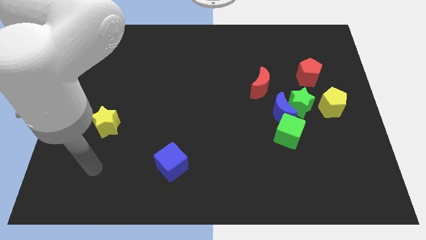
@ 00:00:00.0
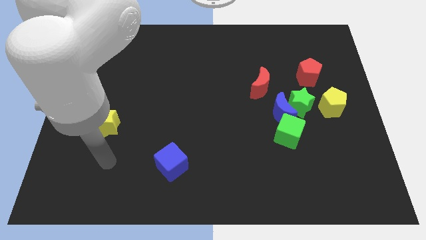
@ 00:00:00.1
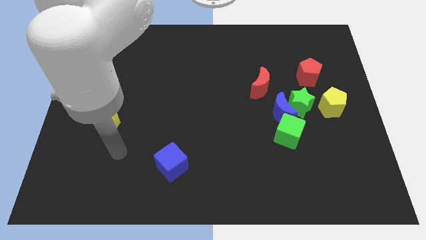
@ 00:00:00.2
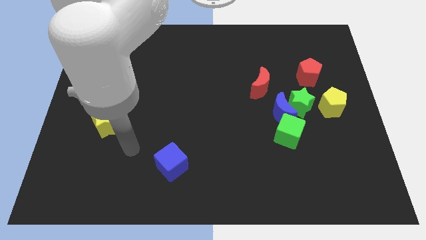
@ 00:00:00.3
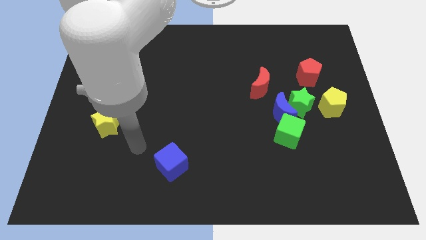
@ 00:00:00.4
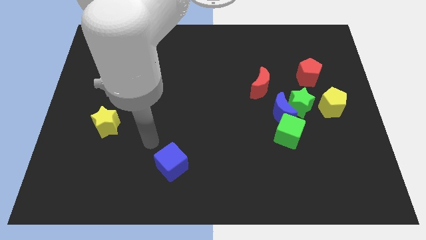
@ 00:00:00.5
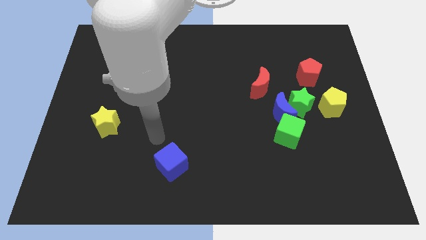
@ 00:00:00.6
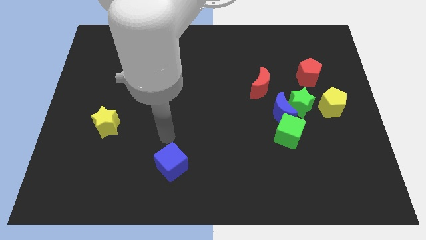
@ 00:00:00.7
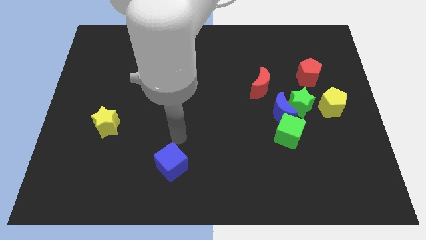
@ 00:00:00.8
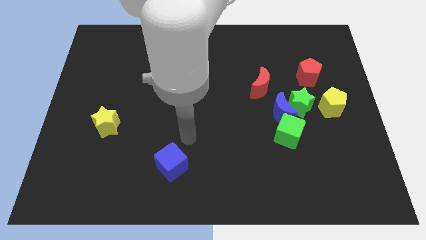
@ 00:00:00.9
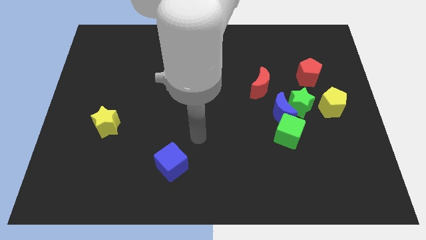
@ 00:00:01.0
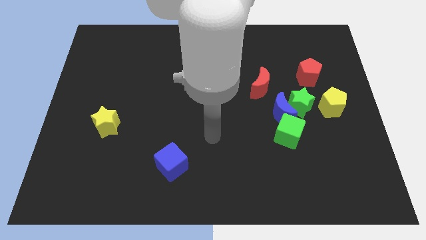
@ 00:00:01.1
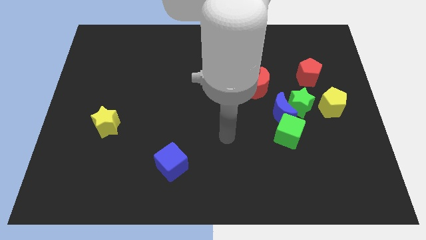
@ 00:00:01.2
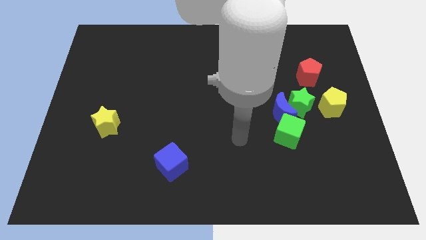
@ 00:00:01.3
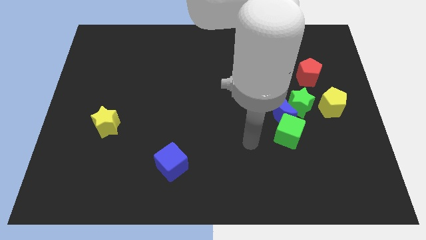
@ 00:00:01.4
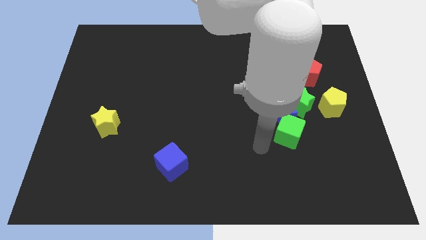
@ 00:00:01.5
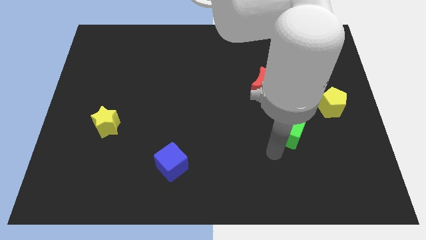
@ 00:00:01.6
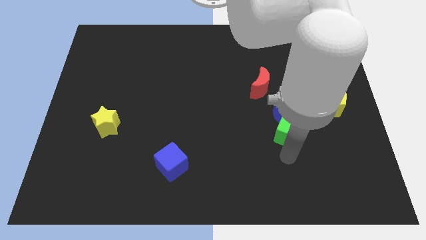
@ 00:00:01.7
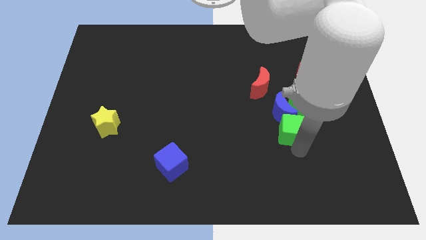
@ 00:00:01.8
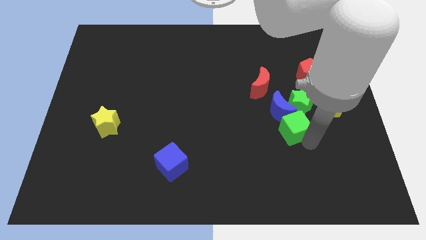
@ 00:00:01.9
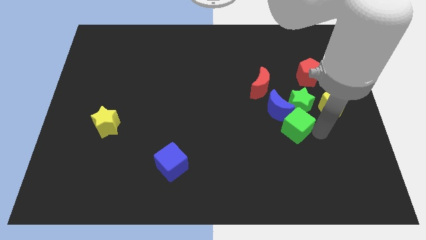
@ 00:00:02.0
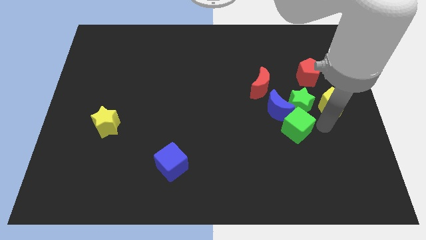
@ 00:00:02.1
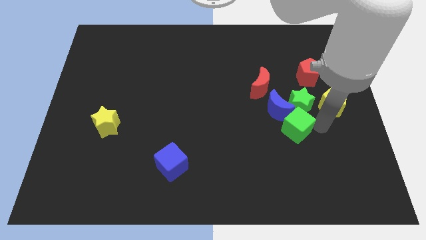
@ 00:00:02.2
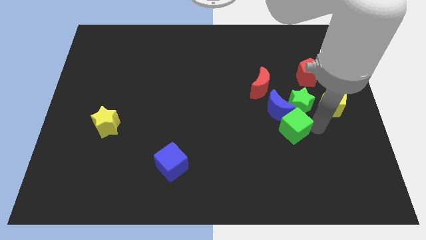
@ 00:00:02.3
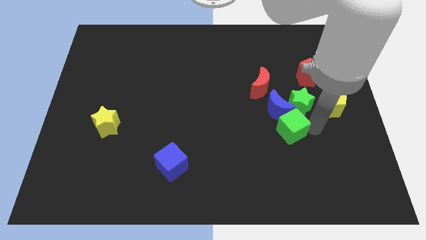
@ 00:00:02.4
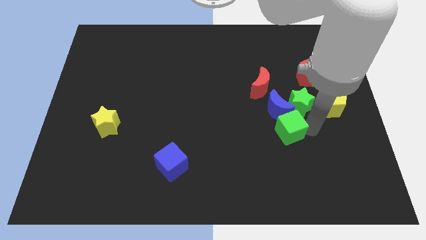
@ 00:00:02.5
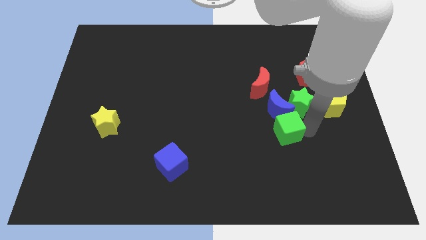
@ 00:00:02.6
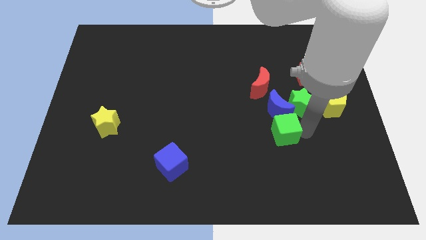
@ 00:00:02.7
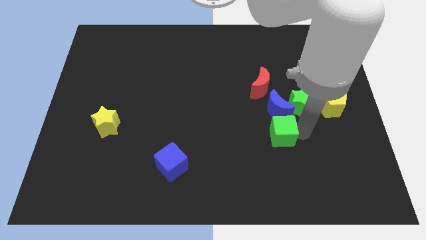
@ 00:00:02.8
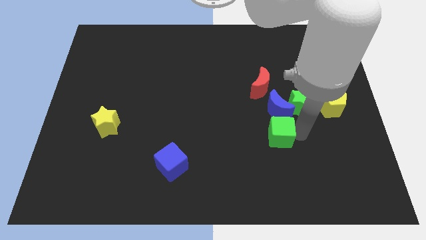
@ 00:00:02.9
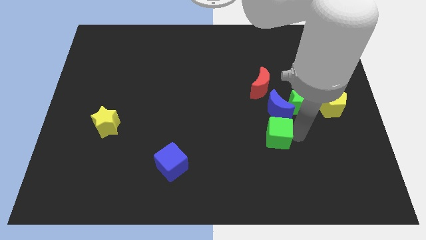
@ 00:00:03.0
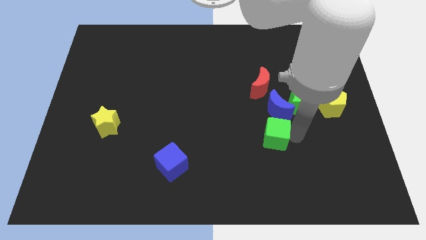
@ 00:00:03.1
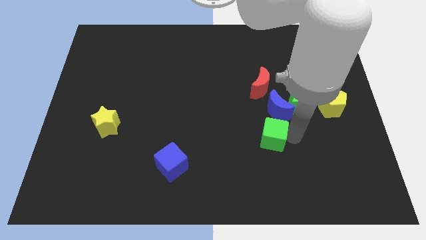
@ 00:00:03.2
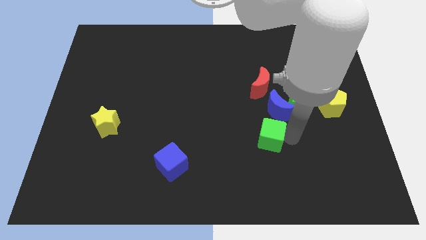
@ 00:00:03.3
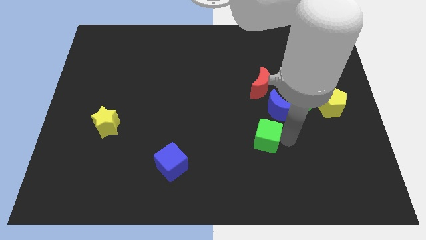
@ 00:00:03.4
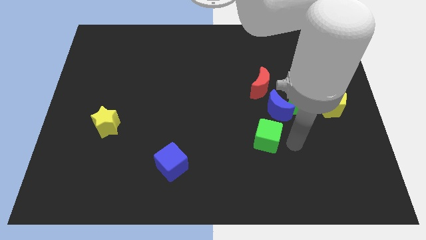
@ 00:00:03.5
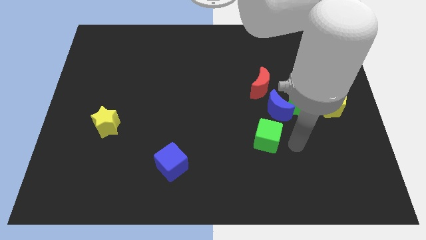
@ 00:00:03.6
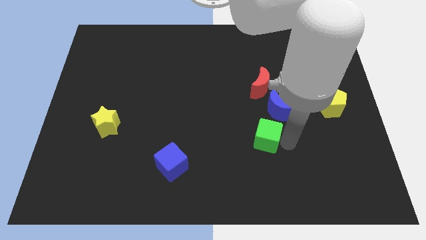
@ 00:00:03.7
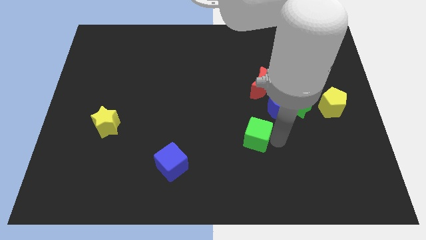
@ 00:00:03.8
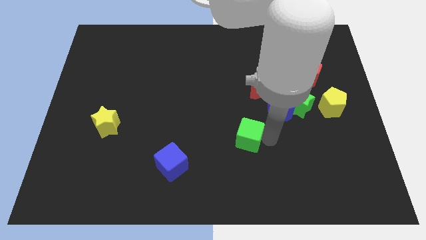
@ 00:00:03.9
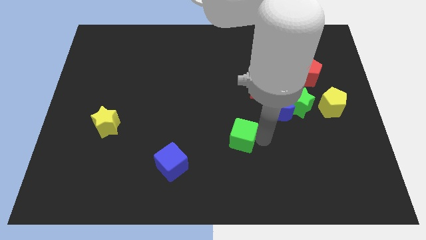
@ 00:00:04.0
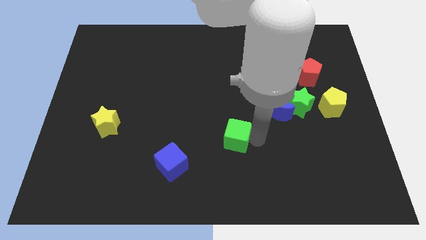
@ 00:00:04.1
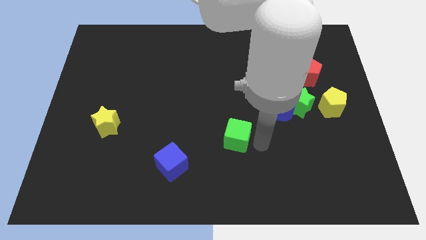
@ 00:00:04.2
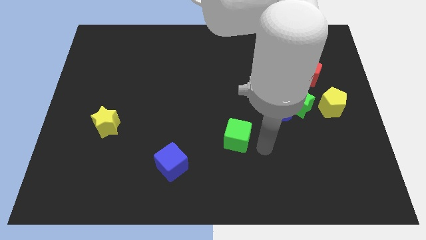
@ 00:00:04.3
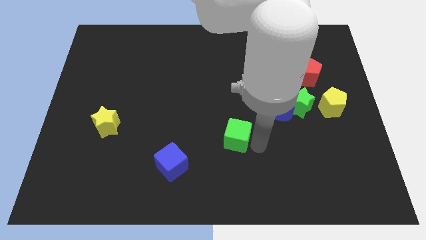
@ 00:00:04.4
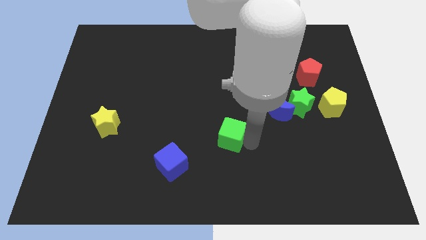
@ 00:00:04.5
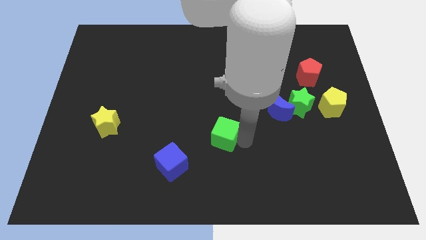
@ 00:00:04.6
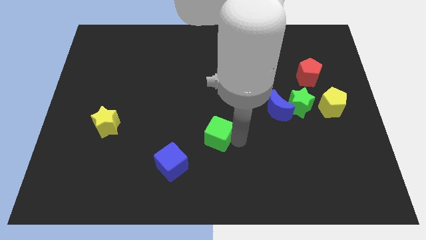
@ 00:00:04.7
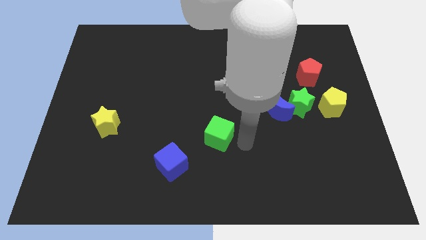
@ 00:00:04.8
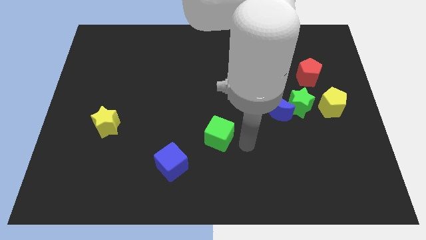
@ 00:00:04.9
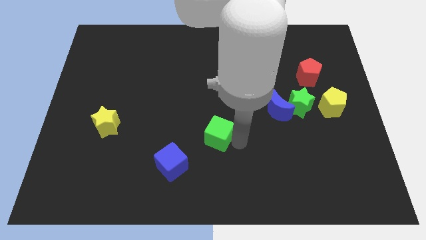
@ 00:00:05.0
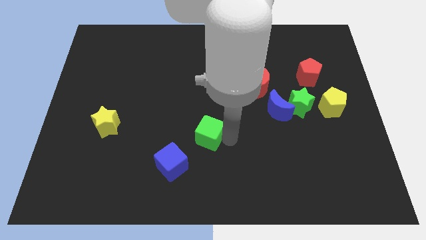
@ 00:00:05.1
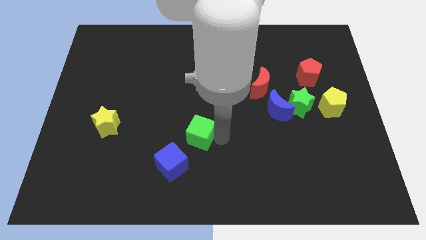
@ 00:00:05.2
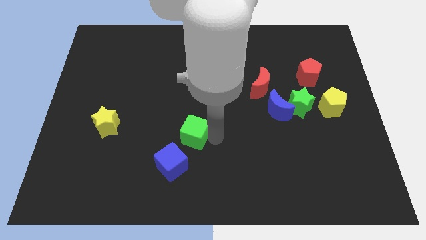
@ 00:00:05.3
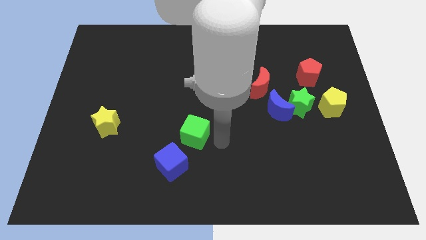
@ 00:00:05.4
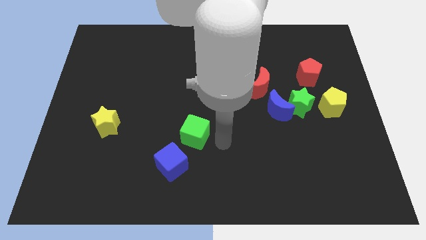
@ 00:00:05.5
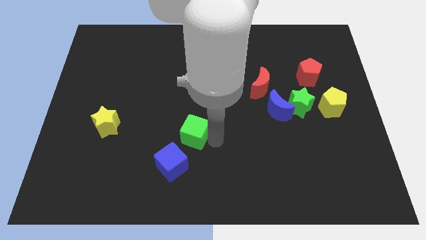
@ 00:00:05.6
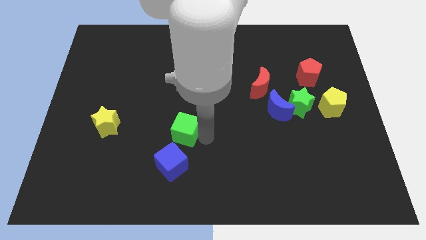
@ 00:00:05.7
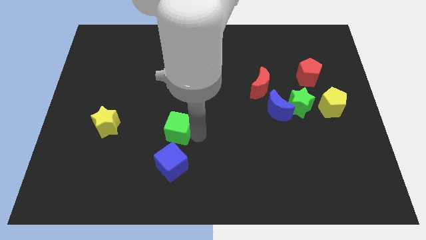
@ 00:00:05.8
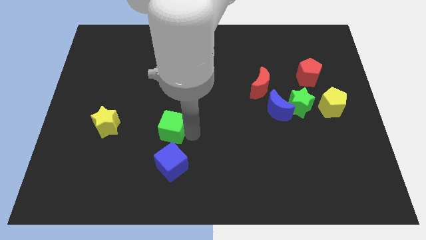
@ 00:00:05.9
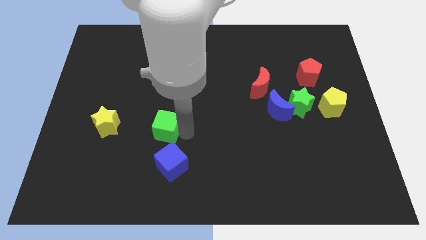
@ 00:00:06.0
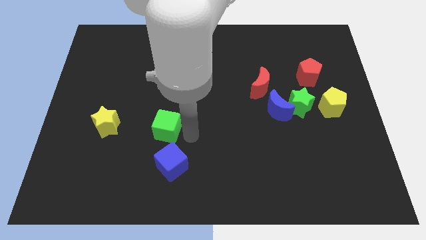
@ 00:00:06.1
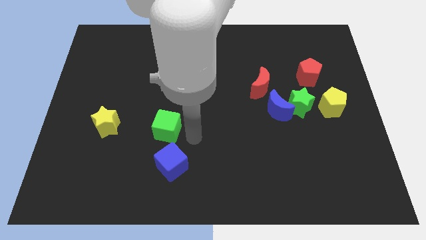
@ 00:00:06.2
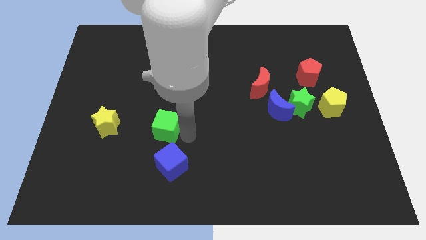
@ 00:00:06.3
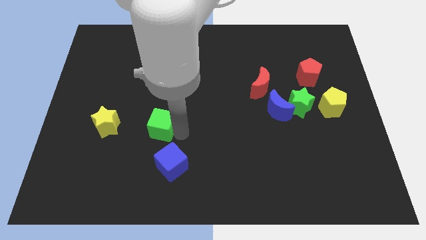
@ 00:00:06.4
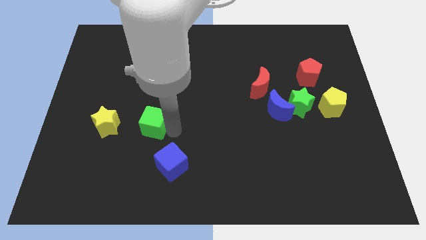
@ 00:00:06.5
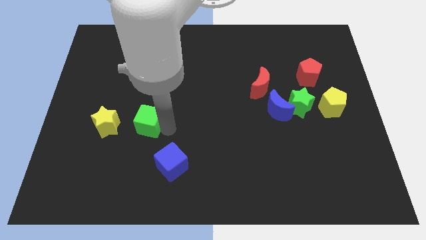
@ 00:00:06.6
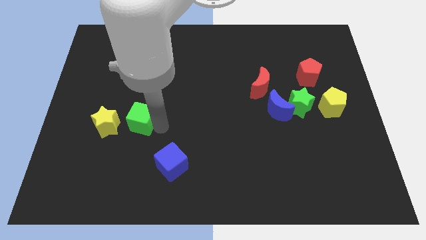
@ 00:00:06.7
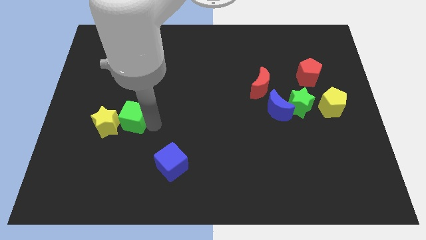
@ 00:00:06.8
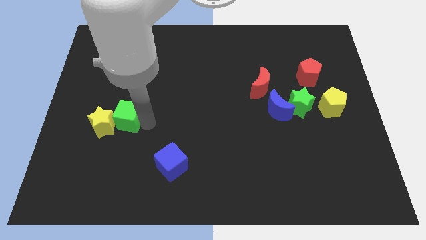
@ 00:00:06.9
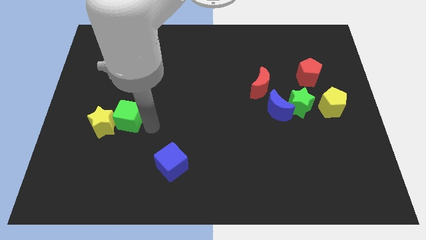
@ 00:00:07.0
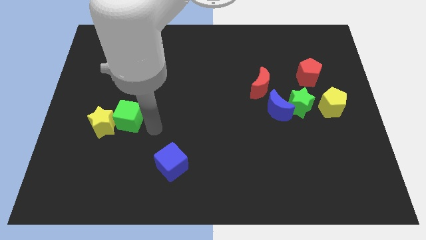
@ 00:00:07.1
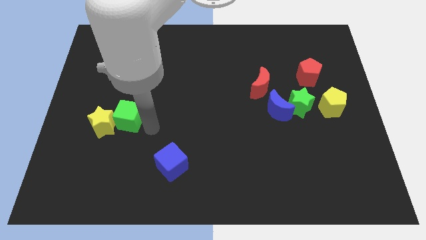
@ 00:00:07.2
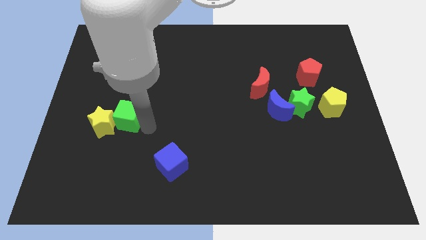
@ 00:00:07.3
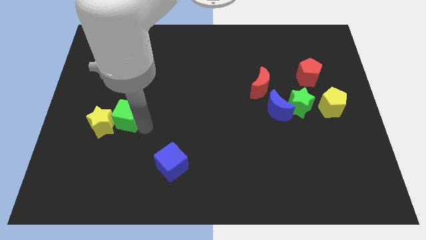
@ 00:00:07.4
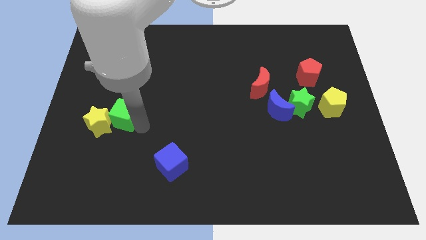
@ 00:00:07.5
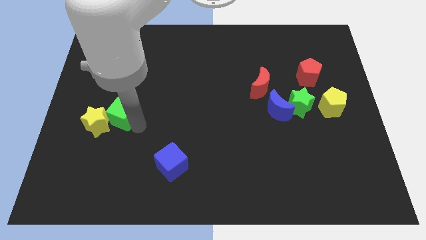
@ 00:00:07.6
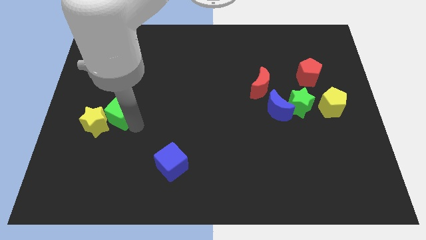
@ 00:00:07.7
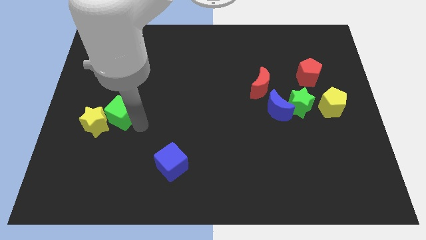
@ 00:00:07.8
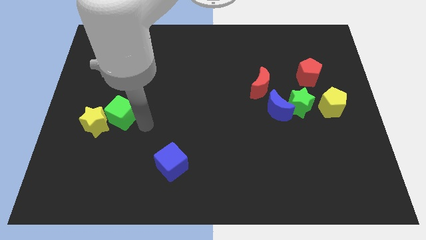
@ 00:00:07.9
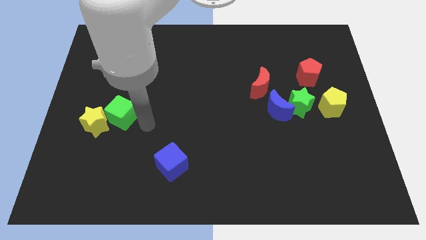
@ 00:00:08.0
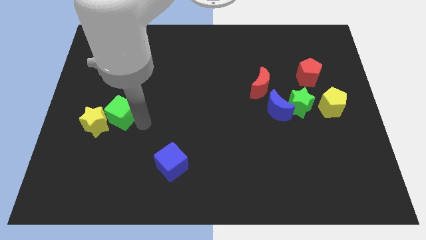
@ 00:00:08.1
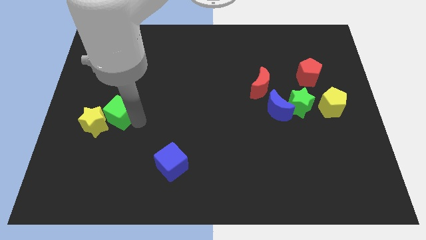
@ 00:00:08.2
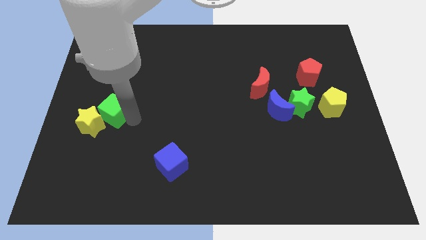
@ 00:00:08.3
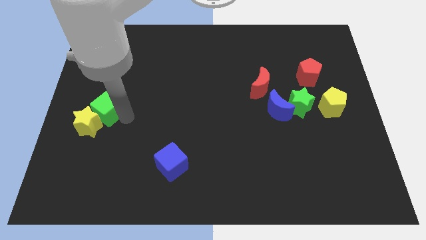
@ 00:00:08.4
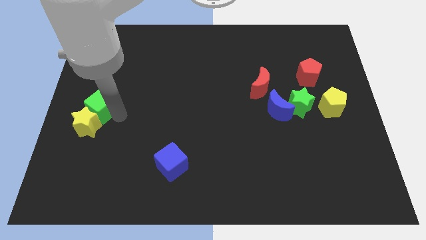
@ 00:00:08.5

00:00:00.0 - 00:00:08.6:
slide the green cube to the center left
